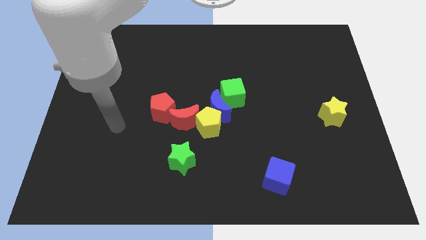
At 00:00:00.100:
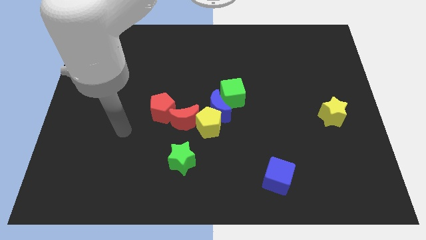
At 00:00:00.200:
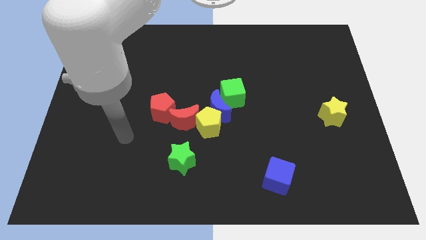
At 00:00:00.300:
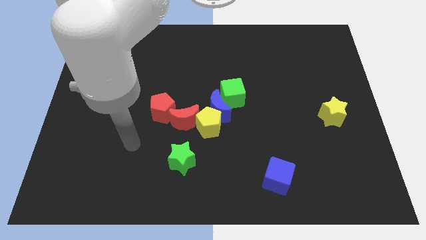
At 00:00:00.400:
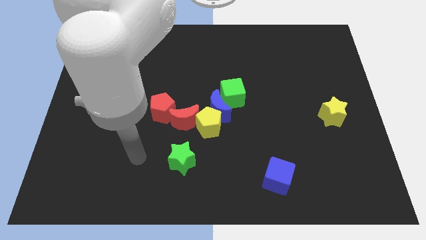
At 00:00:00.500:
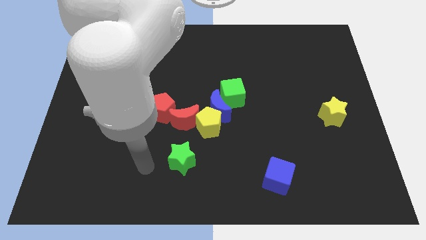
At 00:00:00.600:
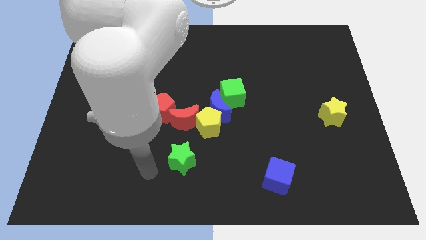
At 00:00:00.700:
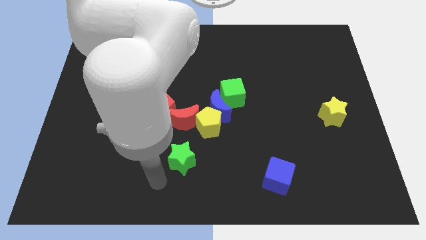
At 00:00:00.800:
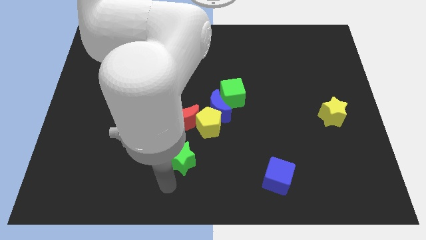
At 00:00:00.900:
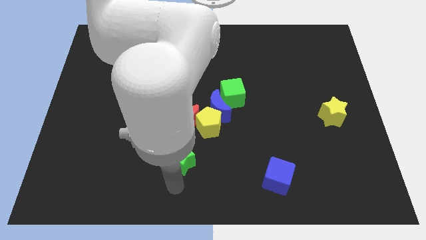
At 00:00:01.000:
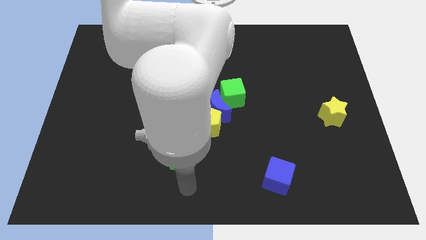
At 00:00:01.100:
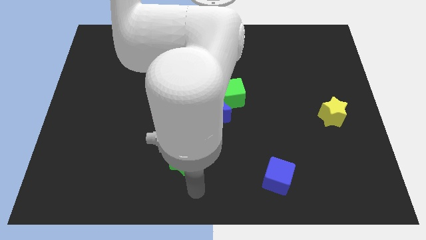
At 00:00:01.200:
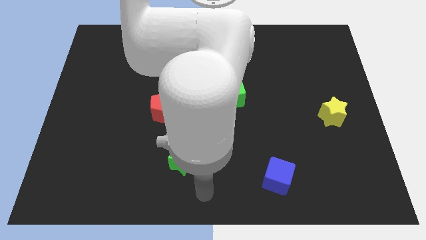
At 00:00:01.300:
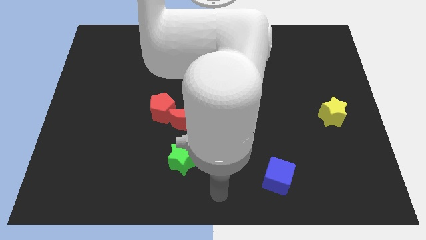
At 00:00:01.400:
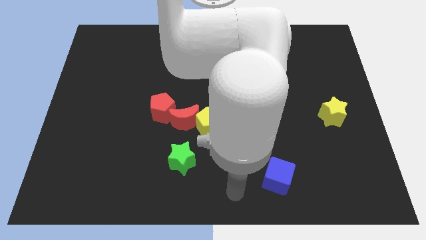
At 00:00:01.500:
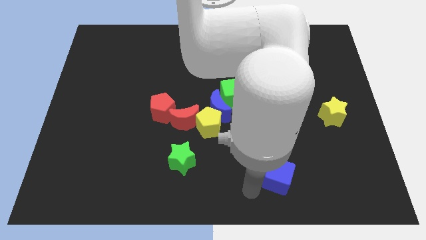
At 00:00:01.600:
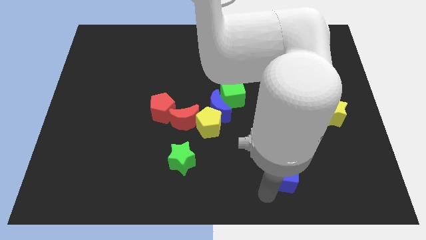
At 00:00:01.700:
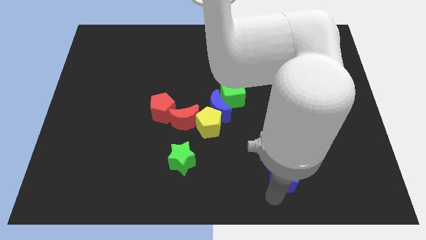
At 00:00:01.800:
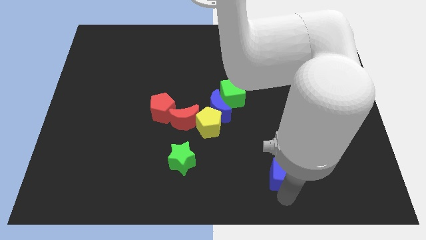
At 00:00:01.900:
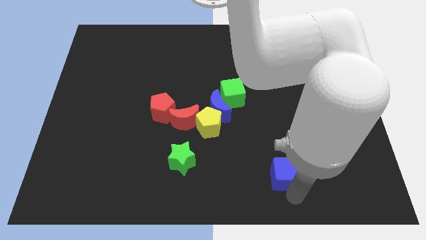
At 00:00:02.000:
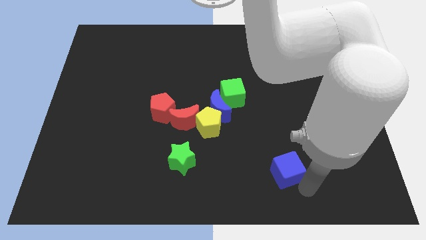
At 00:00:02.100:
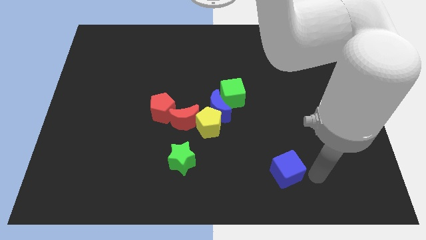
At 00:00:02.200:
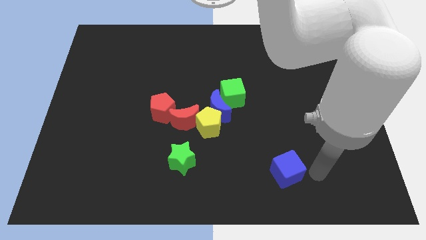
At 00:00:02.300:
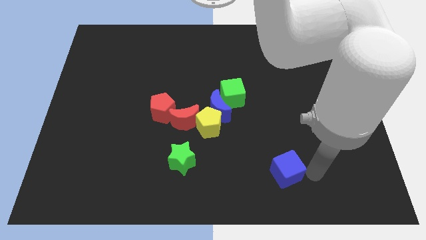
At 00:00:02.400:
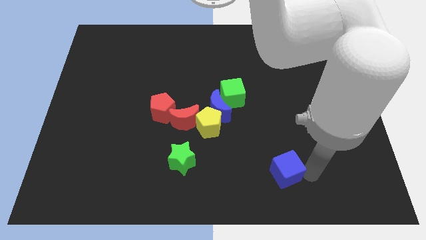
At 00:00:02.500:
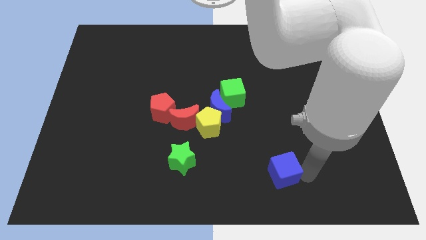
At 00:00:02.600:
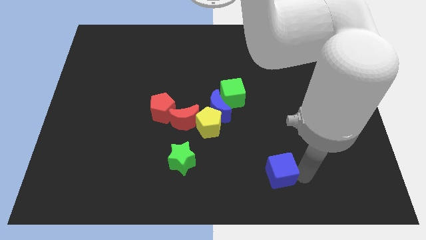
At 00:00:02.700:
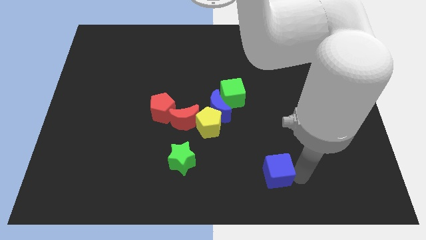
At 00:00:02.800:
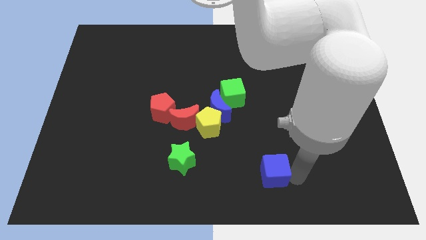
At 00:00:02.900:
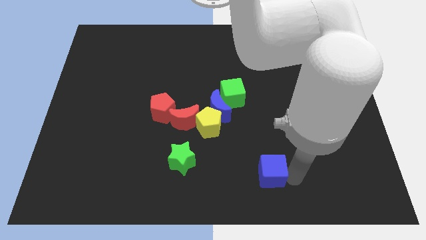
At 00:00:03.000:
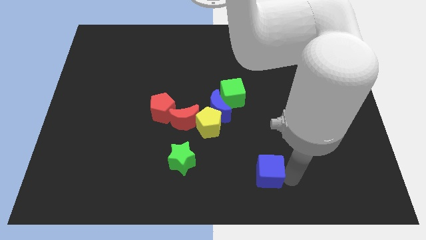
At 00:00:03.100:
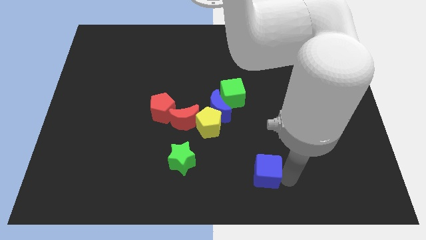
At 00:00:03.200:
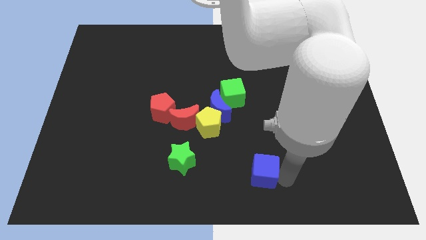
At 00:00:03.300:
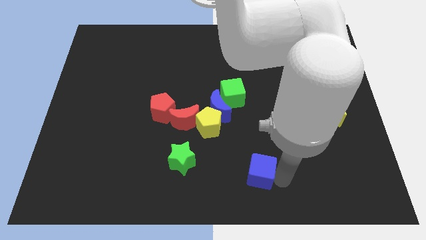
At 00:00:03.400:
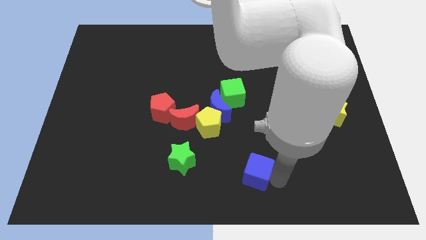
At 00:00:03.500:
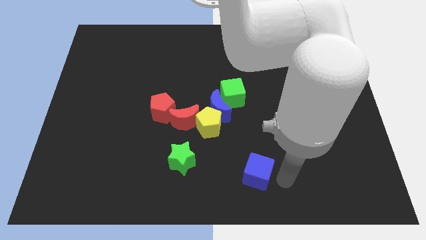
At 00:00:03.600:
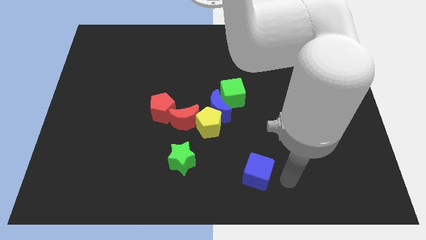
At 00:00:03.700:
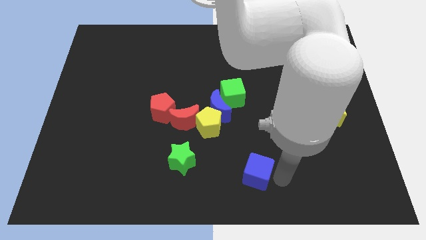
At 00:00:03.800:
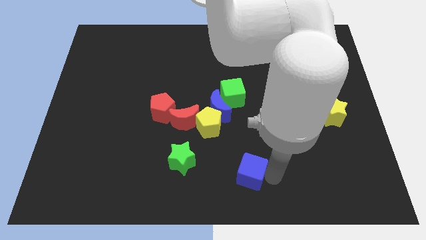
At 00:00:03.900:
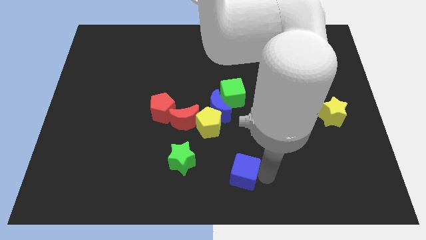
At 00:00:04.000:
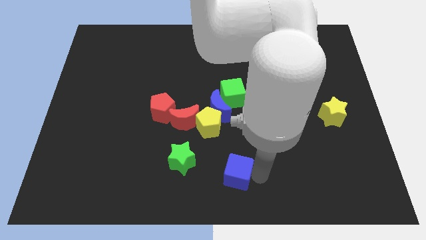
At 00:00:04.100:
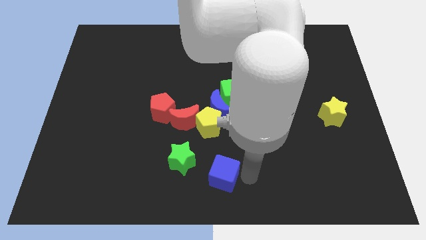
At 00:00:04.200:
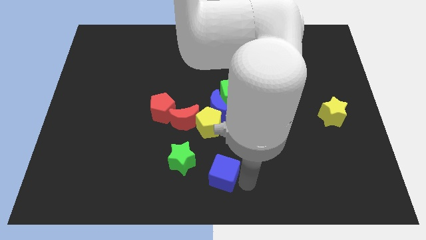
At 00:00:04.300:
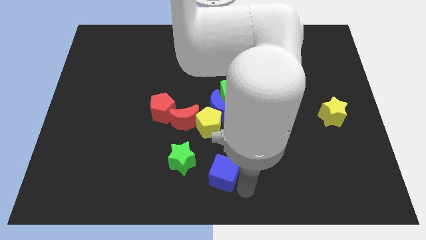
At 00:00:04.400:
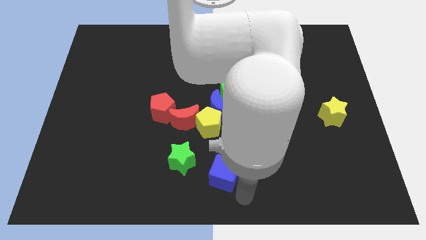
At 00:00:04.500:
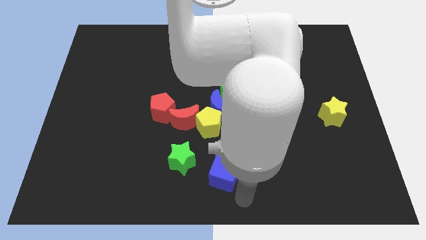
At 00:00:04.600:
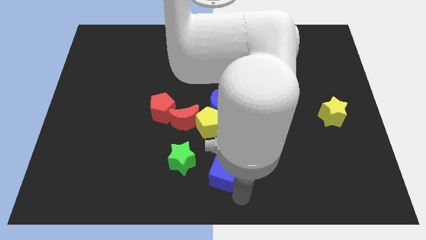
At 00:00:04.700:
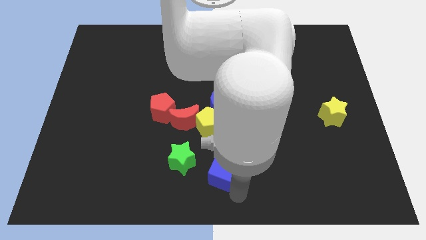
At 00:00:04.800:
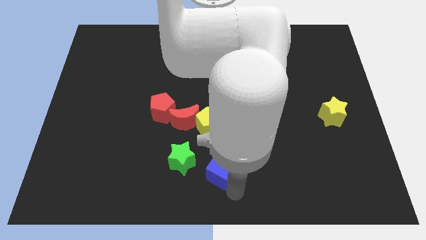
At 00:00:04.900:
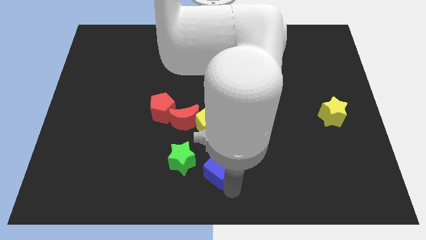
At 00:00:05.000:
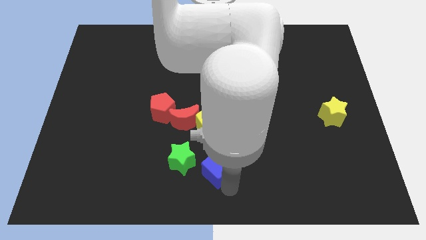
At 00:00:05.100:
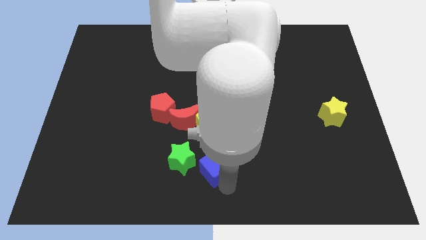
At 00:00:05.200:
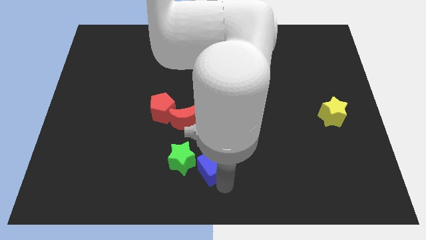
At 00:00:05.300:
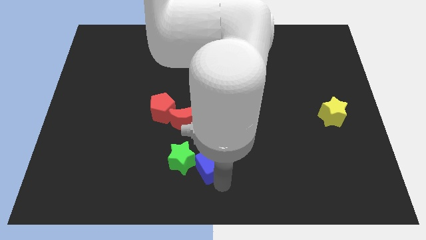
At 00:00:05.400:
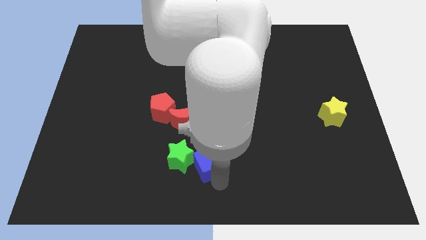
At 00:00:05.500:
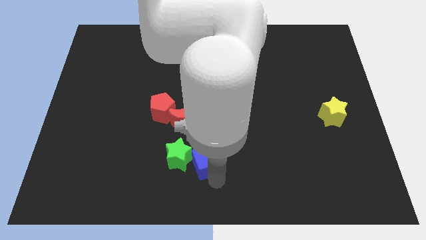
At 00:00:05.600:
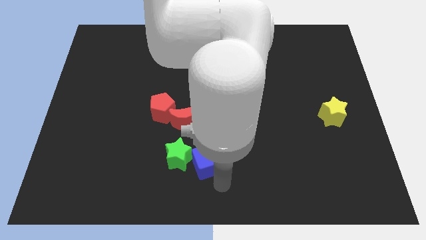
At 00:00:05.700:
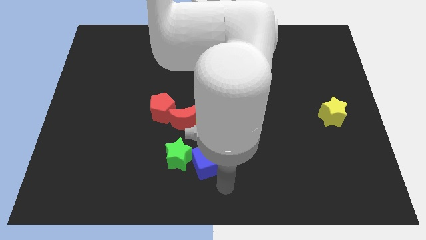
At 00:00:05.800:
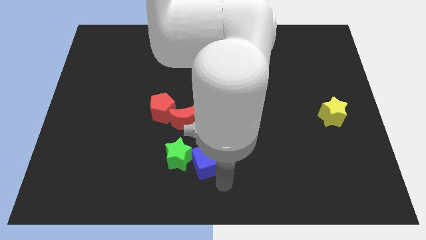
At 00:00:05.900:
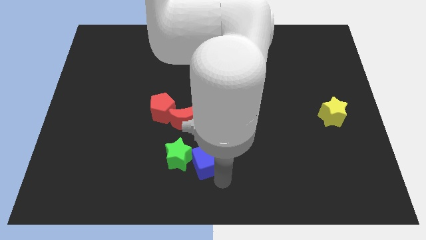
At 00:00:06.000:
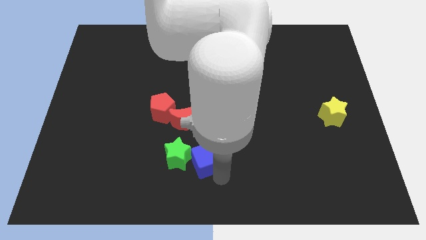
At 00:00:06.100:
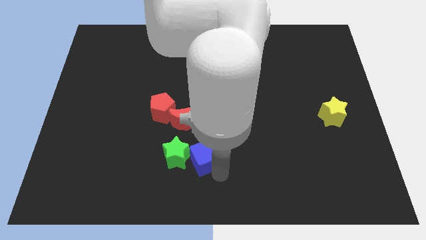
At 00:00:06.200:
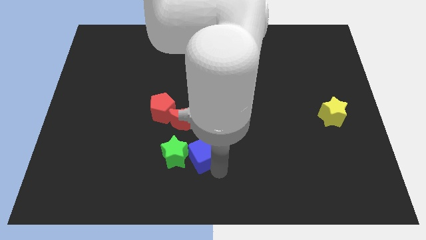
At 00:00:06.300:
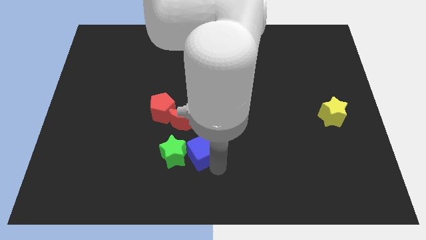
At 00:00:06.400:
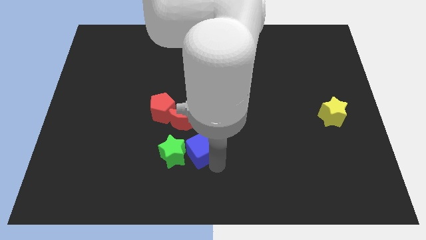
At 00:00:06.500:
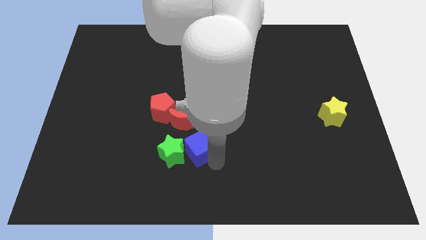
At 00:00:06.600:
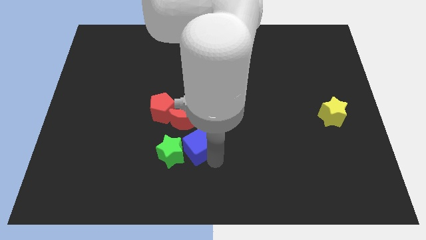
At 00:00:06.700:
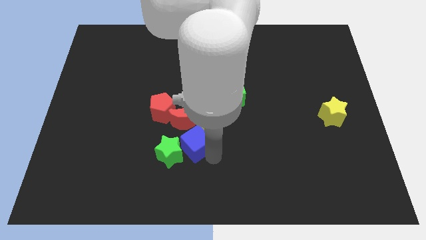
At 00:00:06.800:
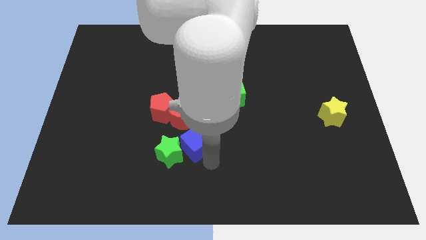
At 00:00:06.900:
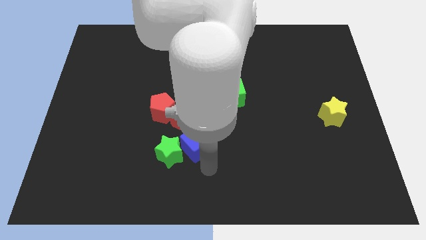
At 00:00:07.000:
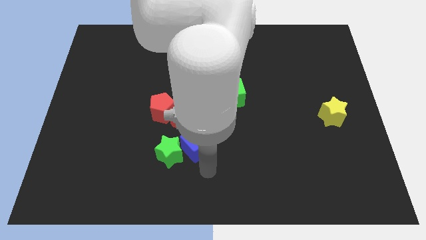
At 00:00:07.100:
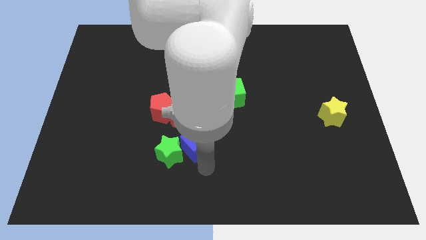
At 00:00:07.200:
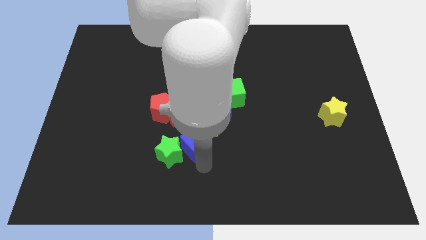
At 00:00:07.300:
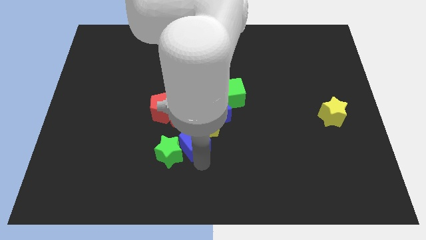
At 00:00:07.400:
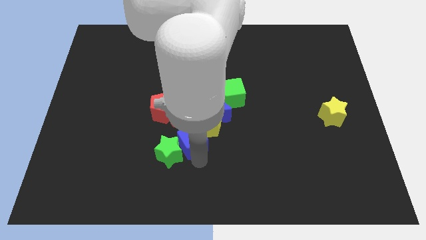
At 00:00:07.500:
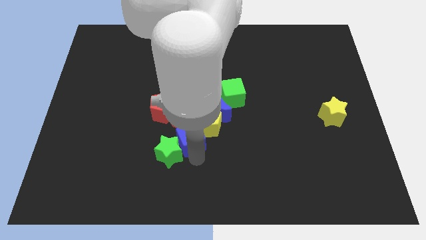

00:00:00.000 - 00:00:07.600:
slide the blue cube close to the red moon
